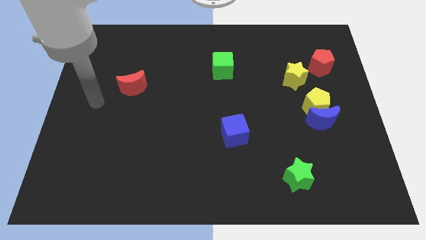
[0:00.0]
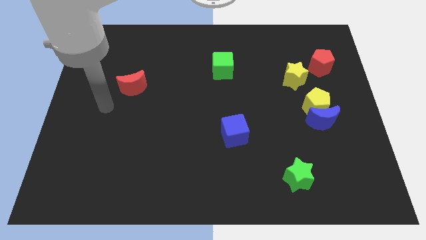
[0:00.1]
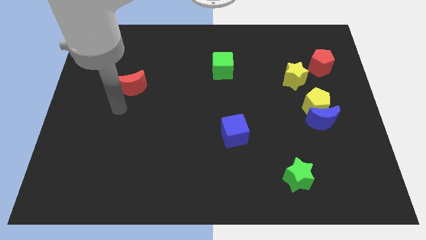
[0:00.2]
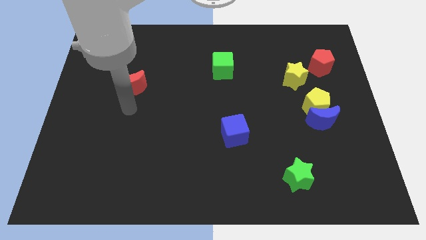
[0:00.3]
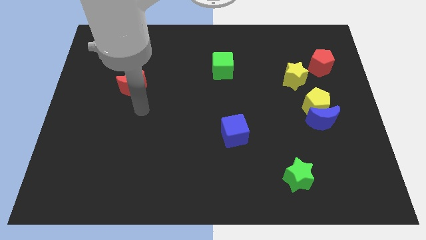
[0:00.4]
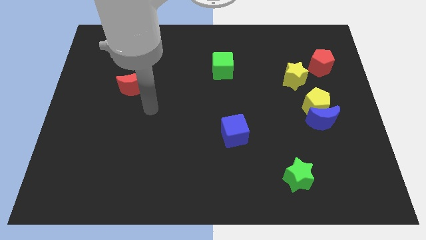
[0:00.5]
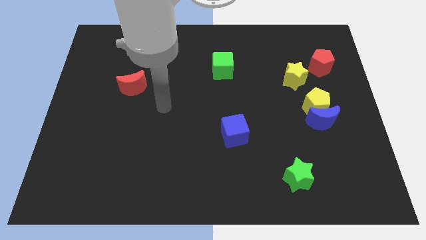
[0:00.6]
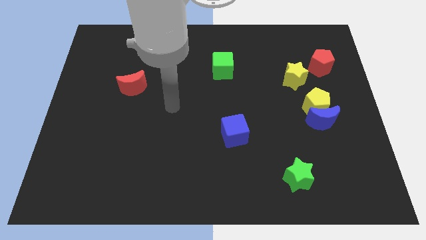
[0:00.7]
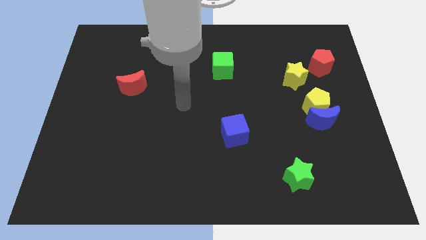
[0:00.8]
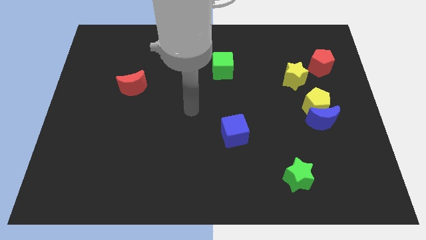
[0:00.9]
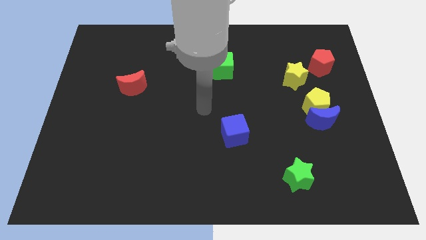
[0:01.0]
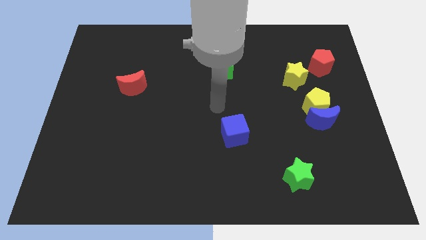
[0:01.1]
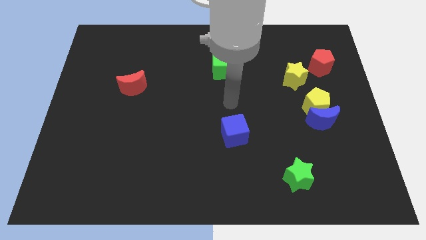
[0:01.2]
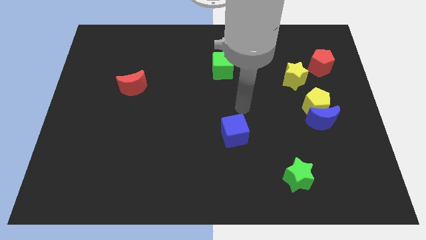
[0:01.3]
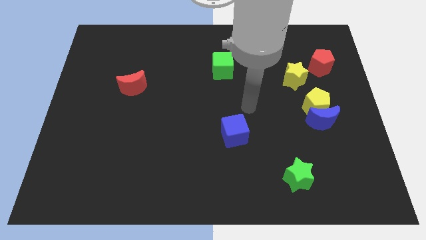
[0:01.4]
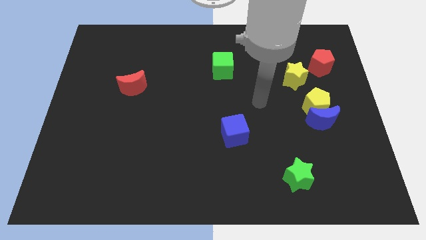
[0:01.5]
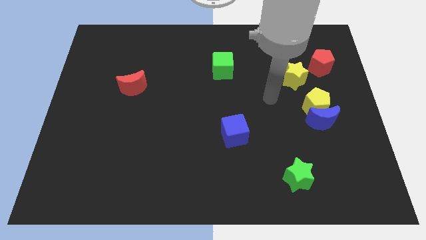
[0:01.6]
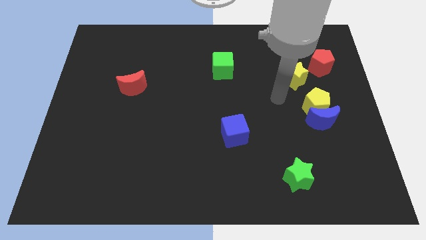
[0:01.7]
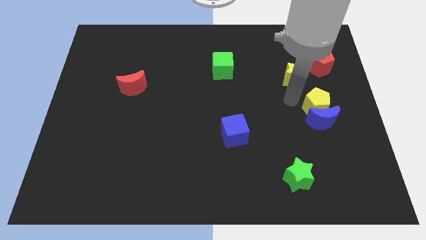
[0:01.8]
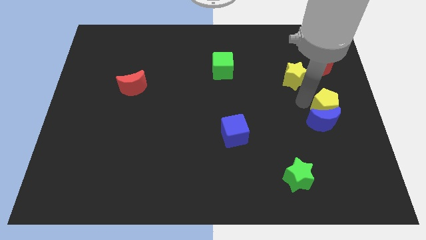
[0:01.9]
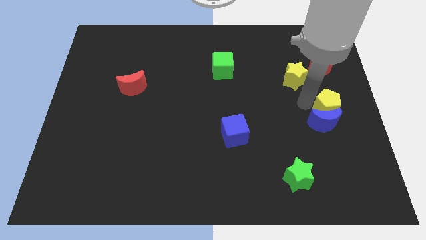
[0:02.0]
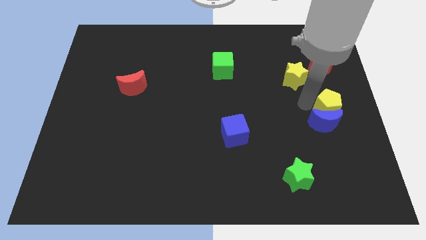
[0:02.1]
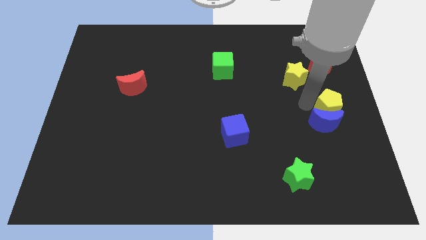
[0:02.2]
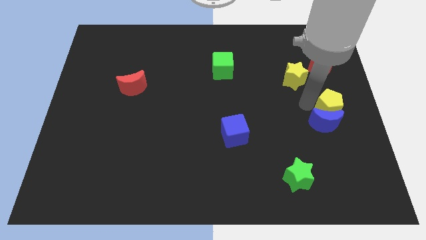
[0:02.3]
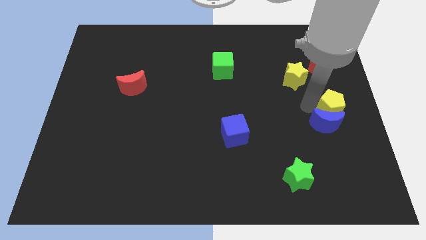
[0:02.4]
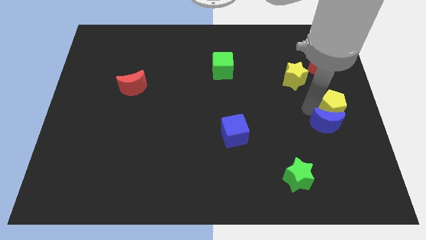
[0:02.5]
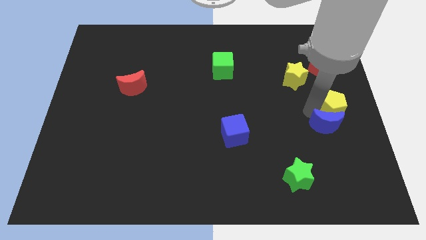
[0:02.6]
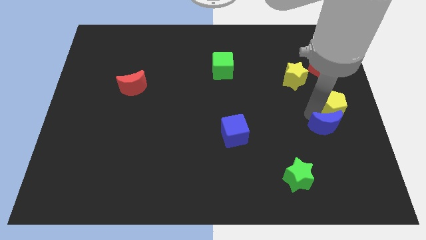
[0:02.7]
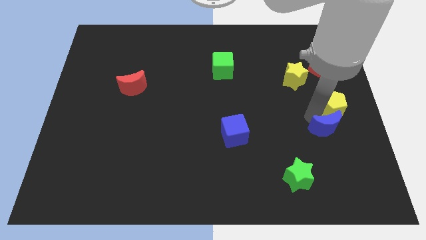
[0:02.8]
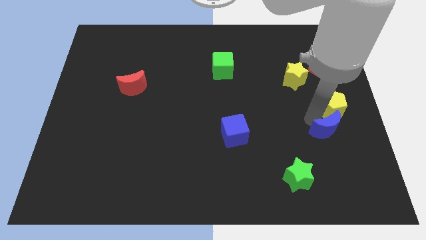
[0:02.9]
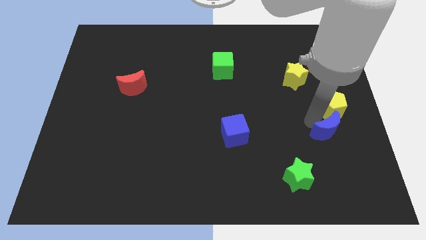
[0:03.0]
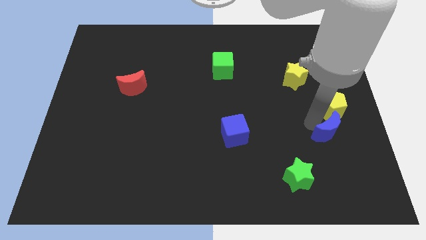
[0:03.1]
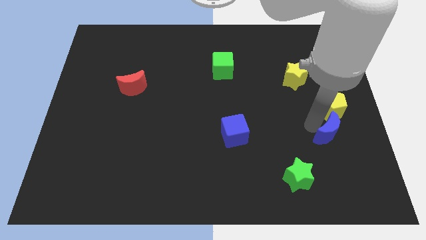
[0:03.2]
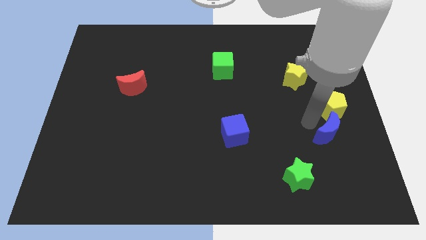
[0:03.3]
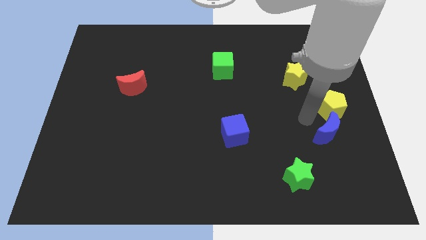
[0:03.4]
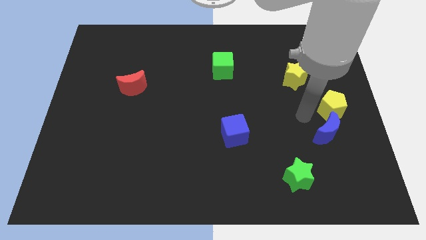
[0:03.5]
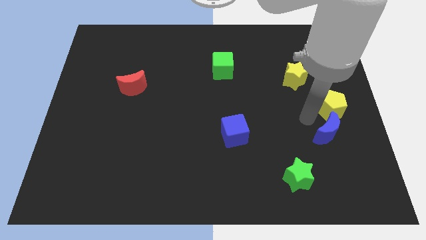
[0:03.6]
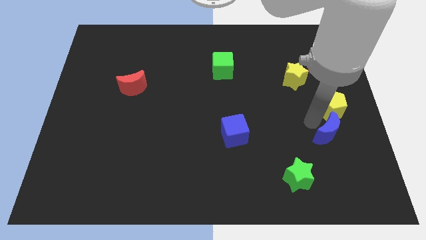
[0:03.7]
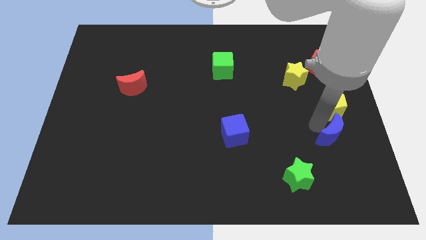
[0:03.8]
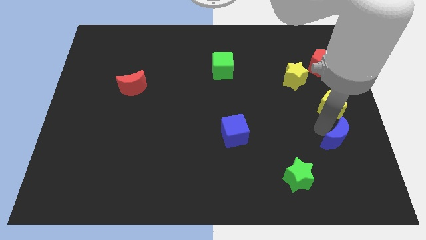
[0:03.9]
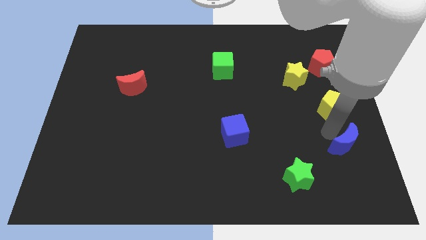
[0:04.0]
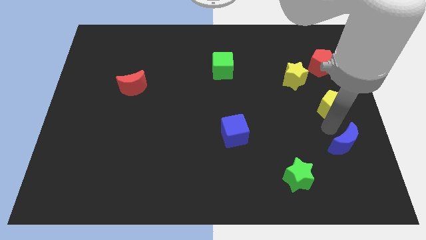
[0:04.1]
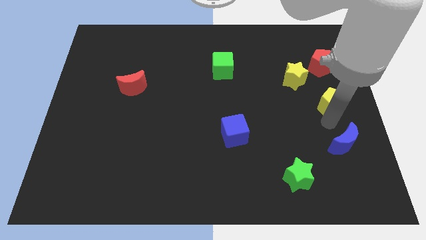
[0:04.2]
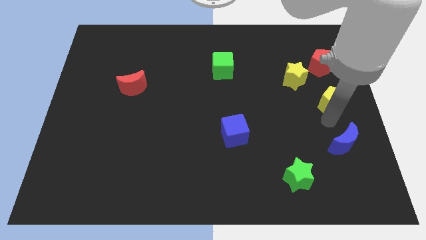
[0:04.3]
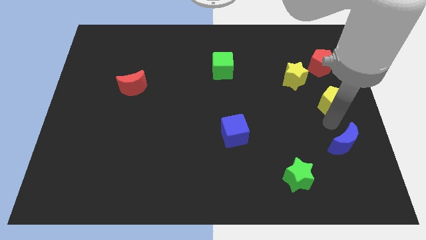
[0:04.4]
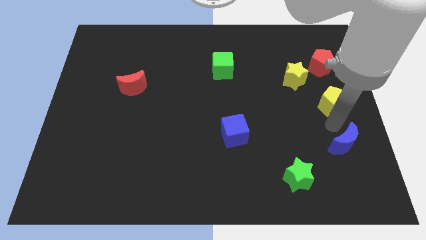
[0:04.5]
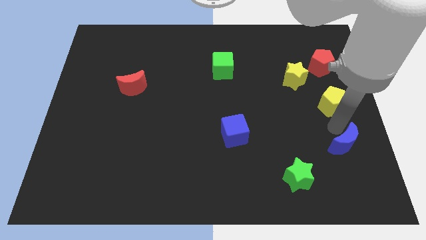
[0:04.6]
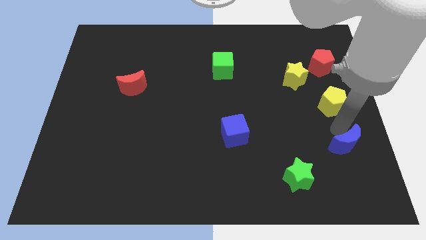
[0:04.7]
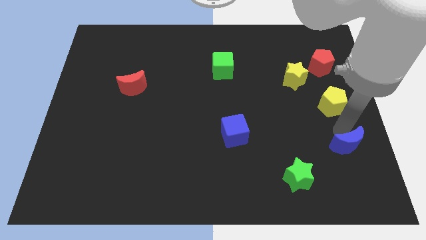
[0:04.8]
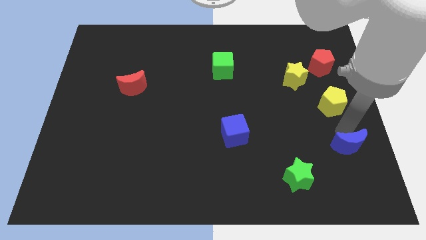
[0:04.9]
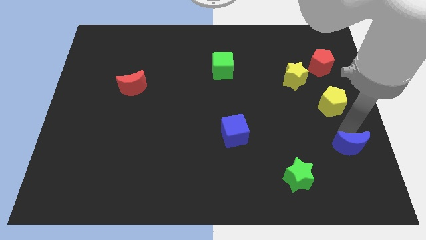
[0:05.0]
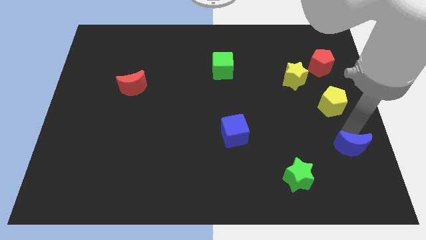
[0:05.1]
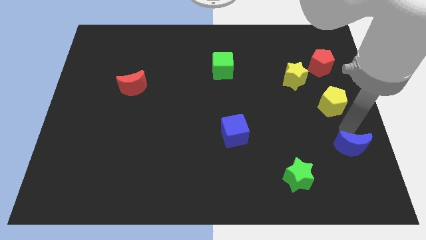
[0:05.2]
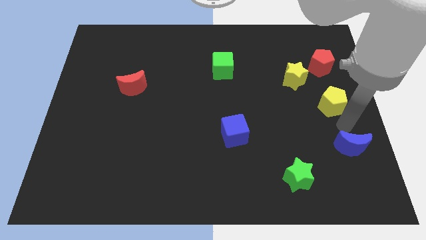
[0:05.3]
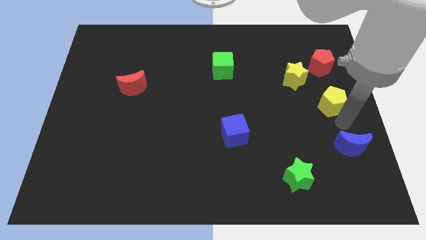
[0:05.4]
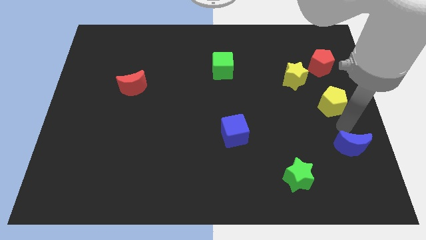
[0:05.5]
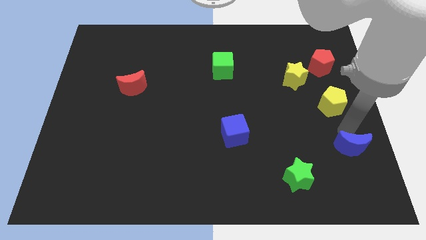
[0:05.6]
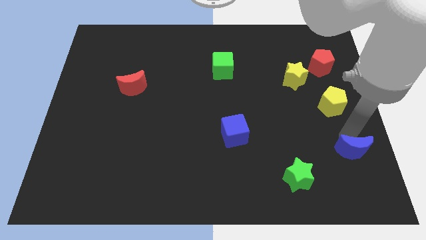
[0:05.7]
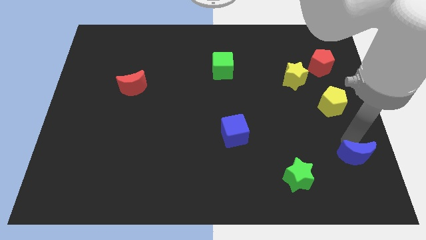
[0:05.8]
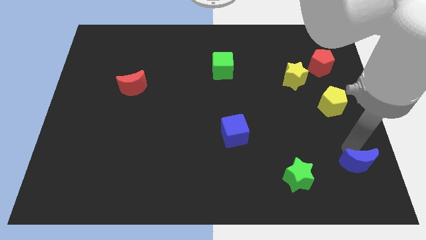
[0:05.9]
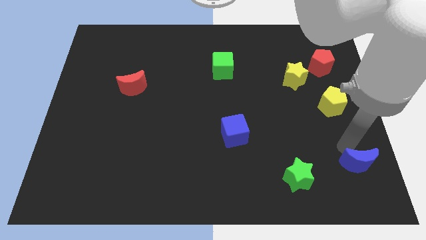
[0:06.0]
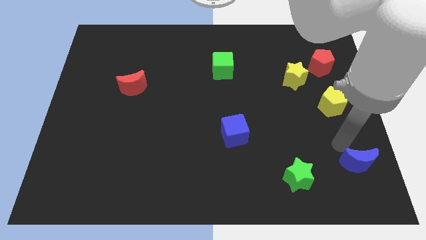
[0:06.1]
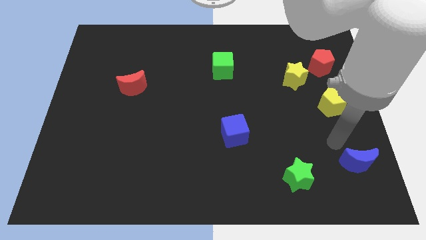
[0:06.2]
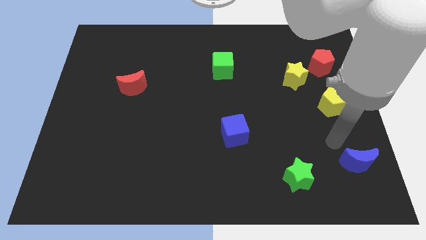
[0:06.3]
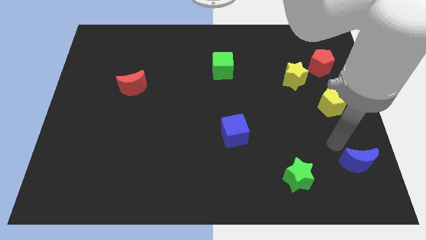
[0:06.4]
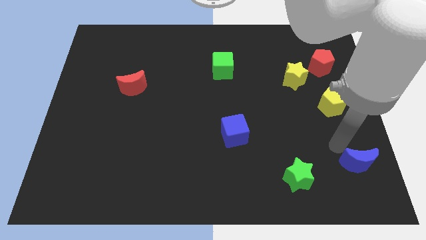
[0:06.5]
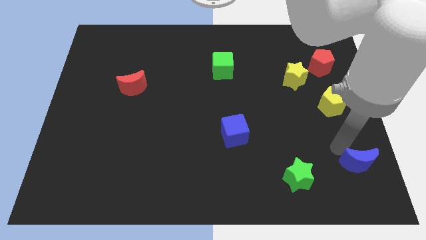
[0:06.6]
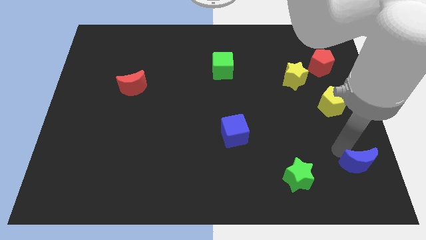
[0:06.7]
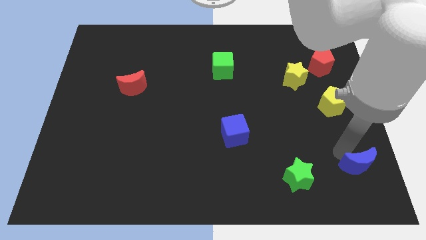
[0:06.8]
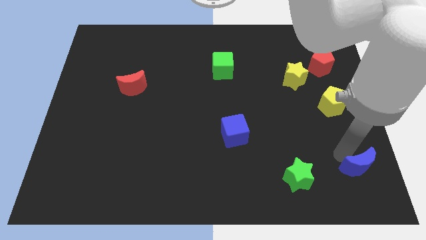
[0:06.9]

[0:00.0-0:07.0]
push the blue moon to the lower right corner
